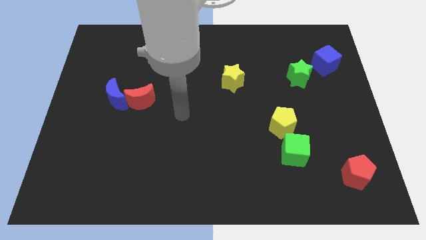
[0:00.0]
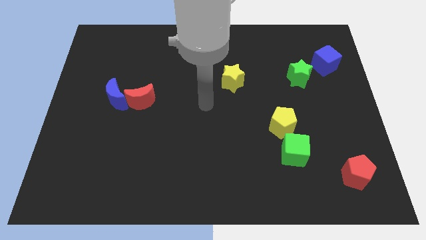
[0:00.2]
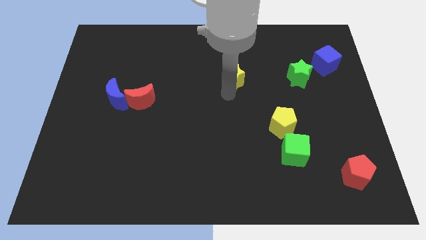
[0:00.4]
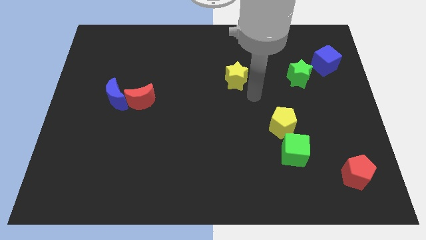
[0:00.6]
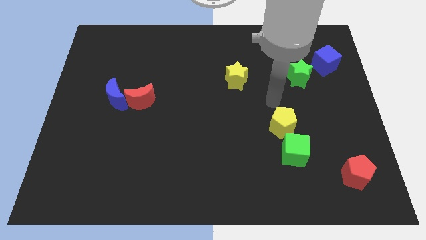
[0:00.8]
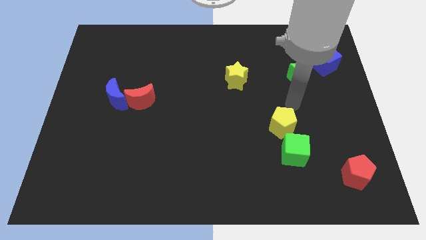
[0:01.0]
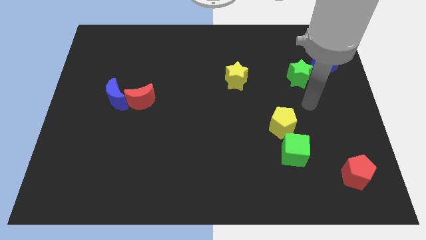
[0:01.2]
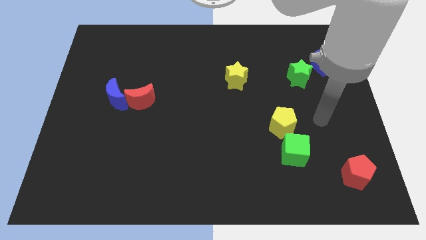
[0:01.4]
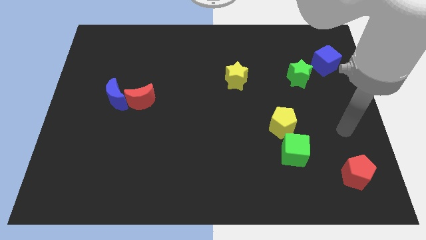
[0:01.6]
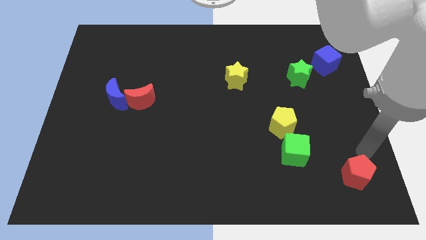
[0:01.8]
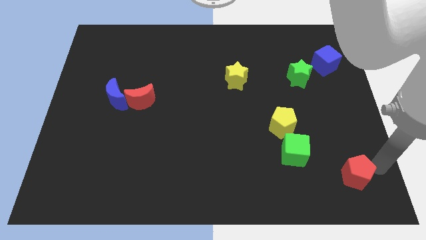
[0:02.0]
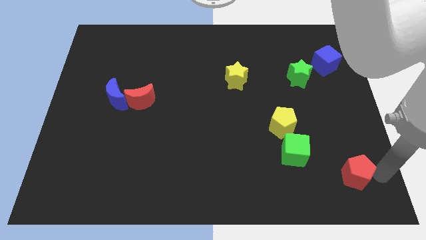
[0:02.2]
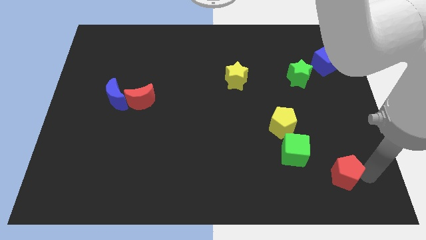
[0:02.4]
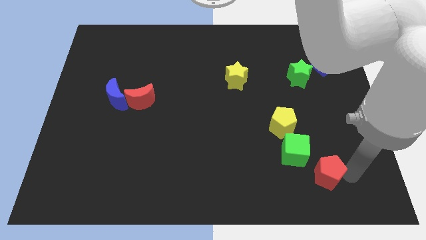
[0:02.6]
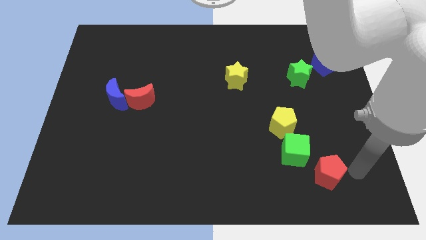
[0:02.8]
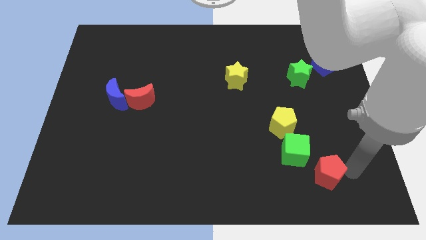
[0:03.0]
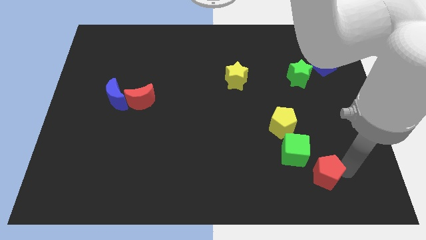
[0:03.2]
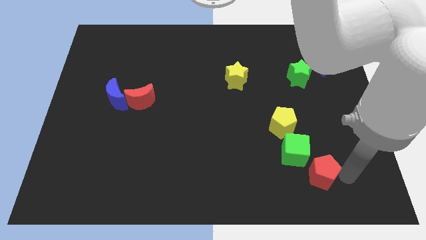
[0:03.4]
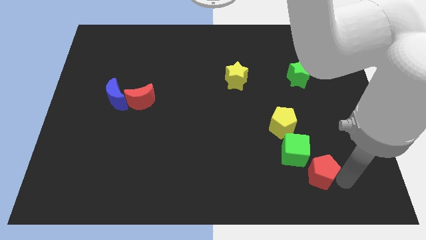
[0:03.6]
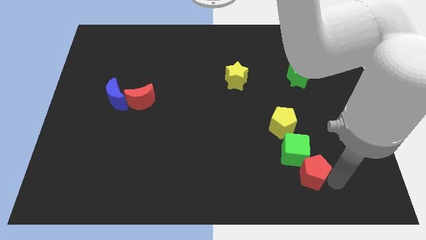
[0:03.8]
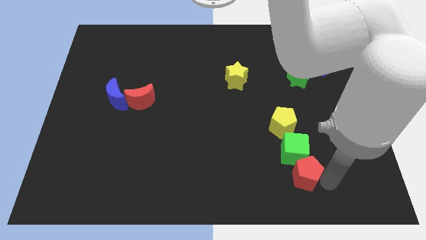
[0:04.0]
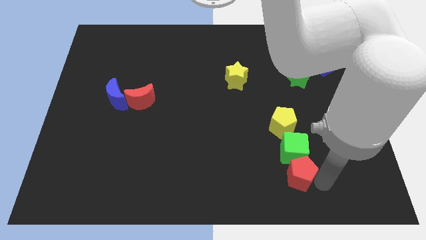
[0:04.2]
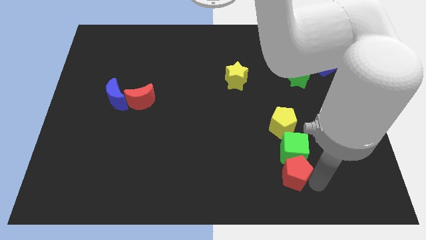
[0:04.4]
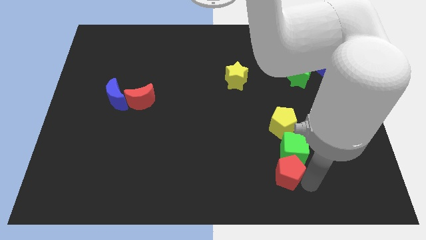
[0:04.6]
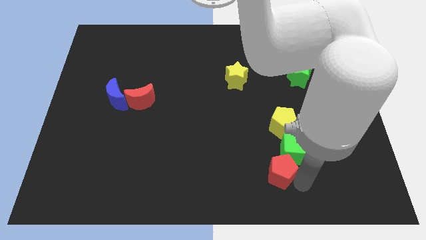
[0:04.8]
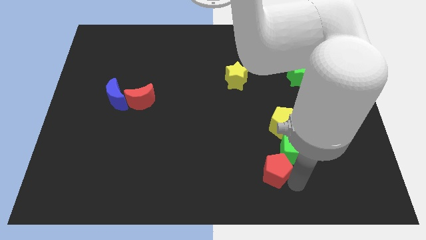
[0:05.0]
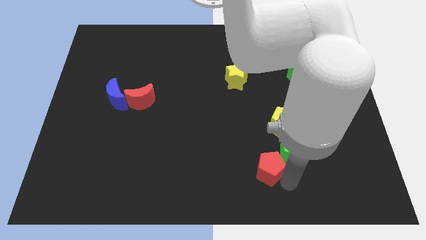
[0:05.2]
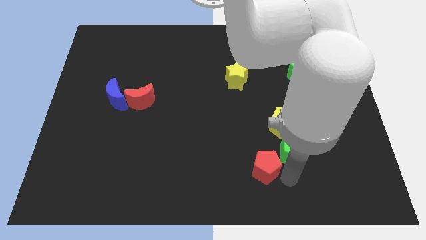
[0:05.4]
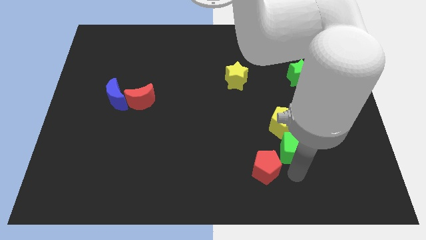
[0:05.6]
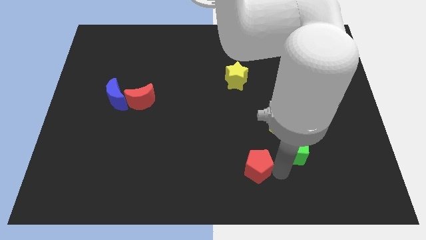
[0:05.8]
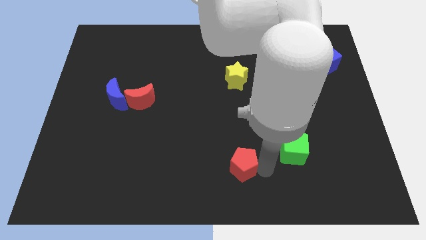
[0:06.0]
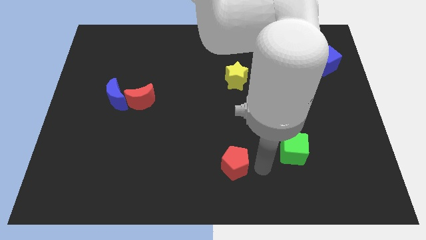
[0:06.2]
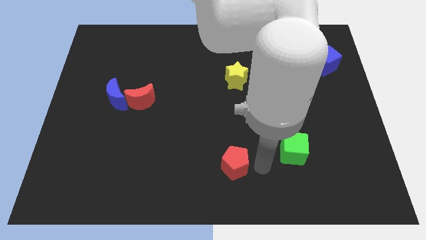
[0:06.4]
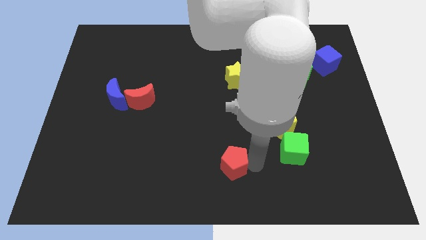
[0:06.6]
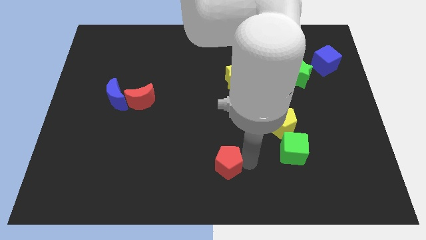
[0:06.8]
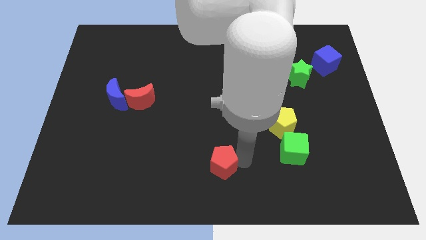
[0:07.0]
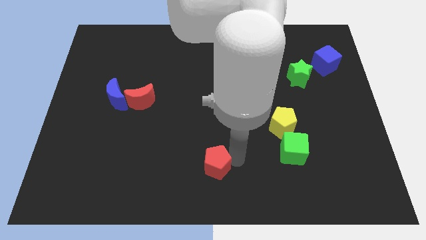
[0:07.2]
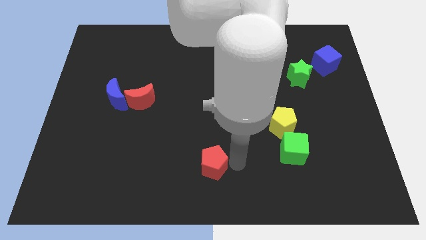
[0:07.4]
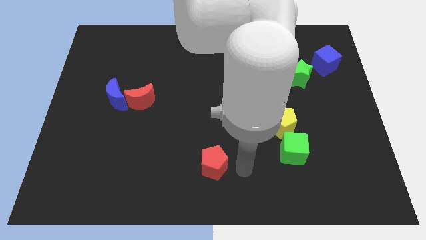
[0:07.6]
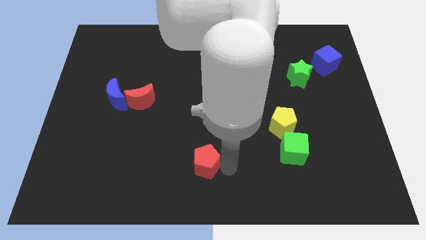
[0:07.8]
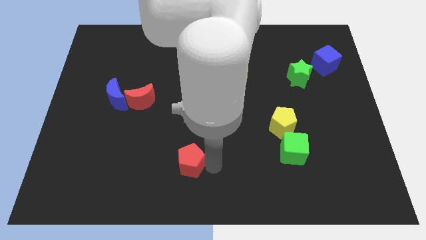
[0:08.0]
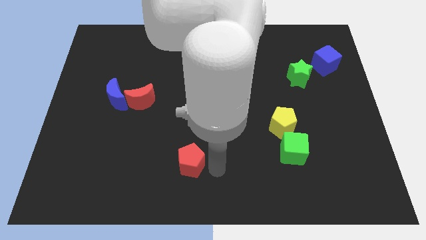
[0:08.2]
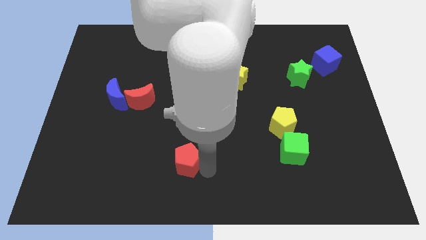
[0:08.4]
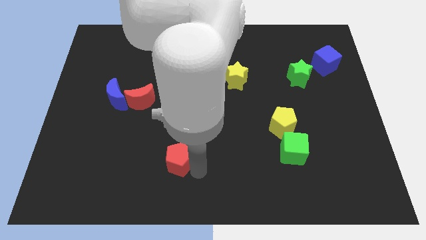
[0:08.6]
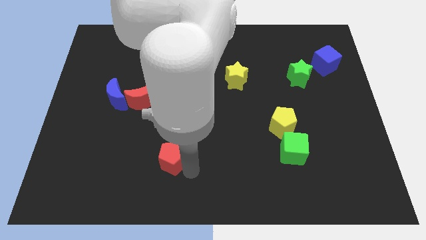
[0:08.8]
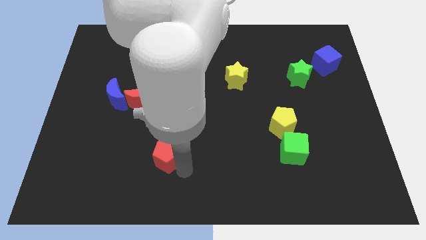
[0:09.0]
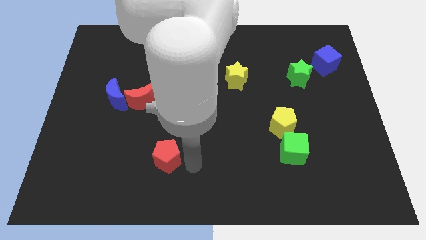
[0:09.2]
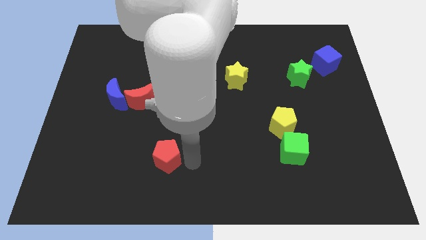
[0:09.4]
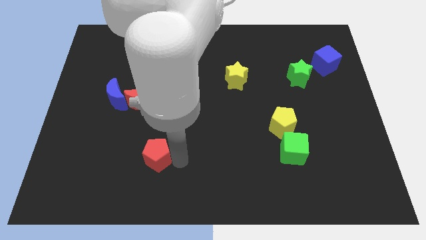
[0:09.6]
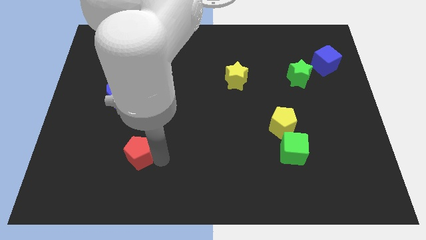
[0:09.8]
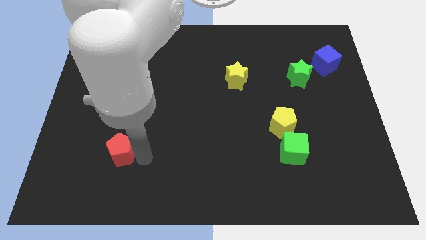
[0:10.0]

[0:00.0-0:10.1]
move the red pentagon to the bottom side of the blue moon

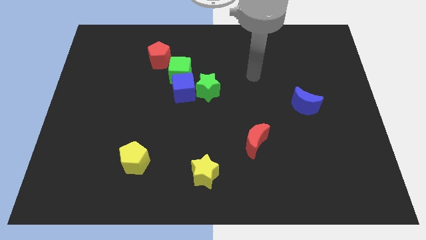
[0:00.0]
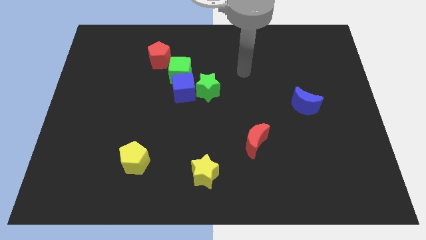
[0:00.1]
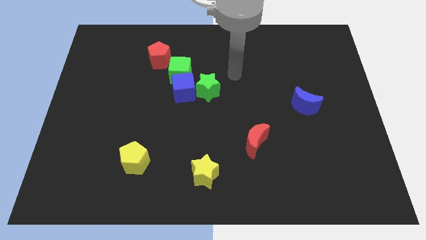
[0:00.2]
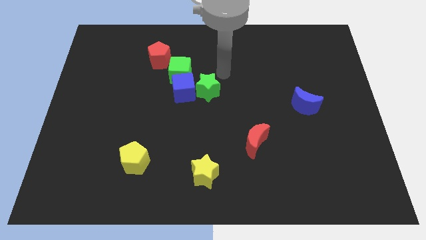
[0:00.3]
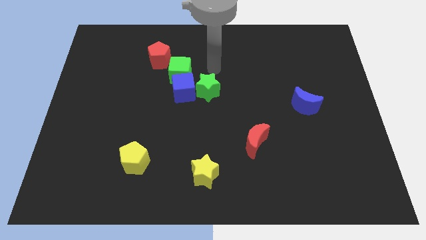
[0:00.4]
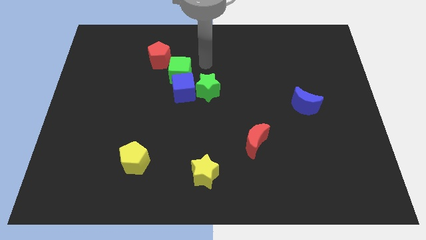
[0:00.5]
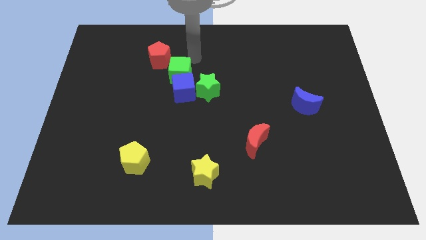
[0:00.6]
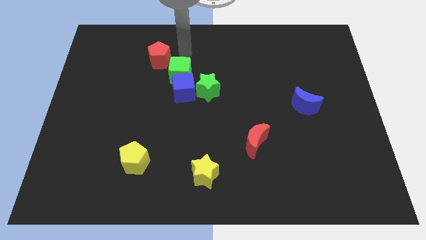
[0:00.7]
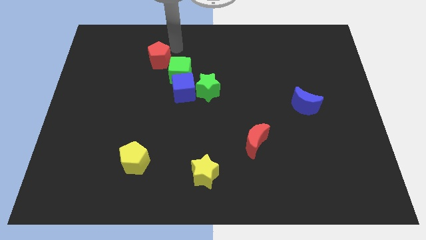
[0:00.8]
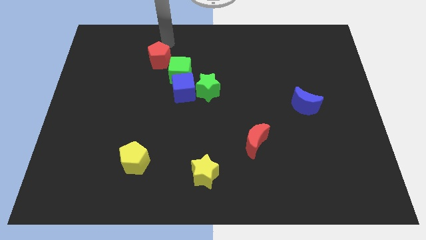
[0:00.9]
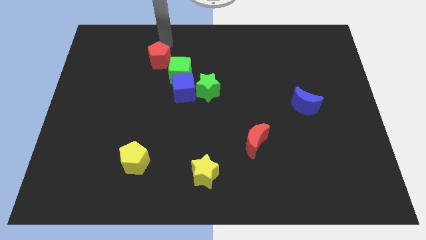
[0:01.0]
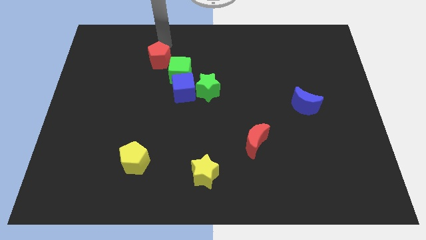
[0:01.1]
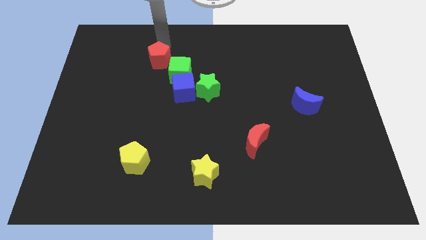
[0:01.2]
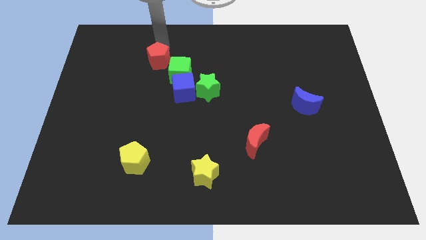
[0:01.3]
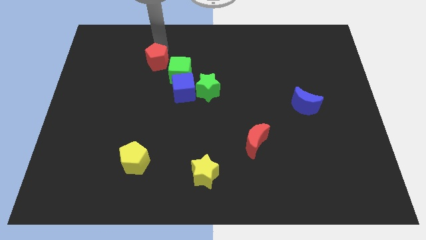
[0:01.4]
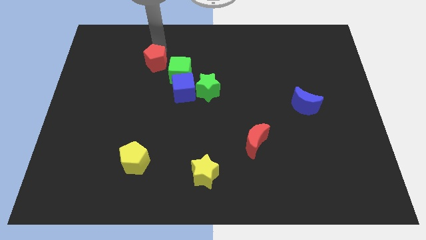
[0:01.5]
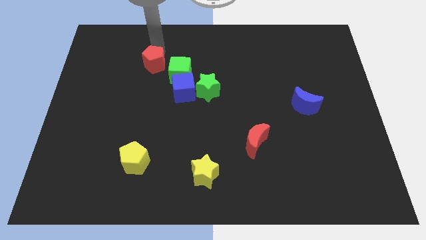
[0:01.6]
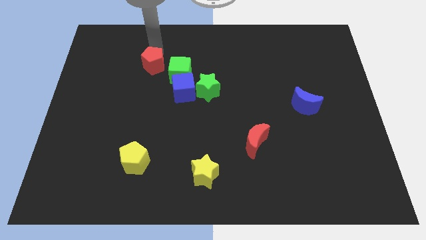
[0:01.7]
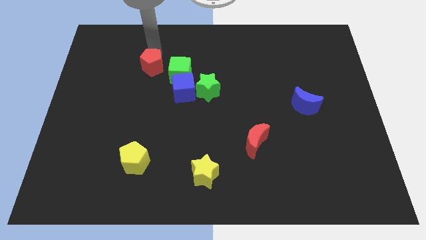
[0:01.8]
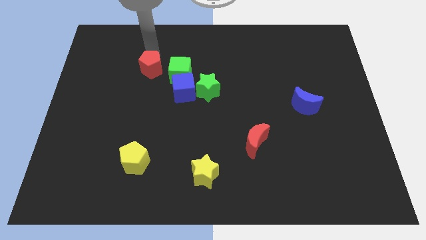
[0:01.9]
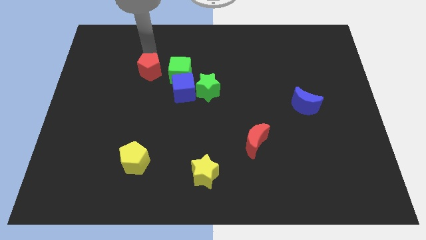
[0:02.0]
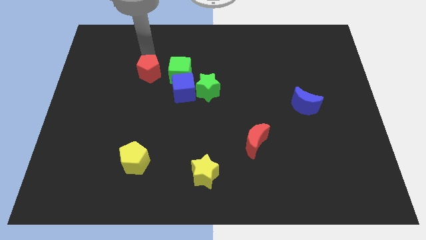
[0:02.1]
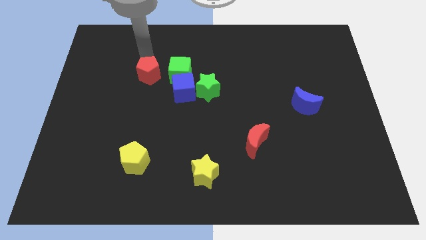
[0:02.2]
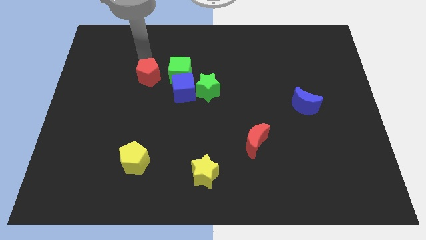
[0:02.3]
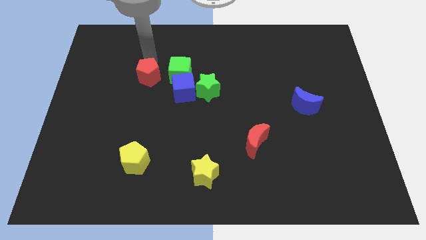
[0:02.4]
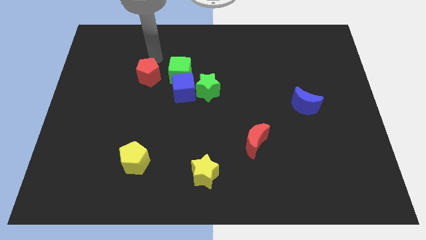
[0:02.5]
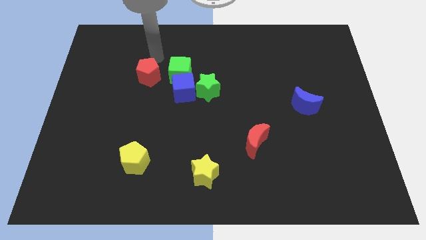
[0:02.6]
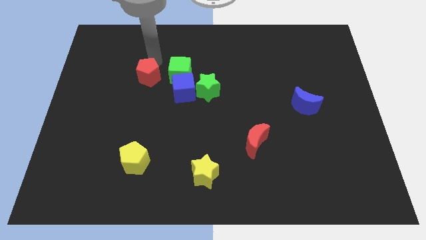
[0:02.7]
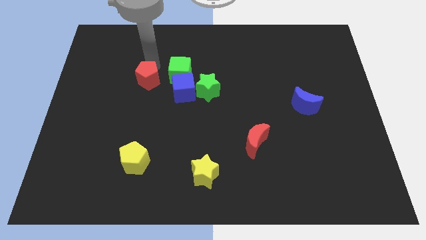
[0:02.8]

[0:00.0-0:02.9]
push the red pentagon just left of the blue cube
